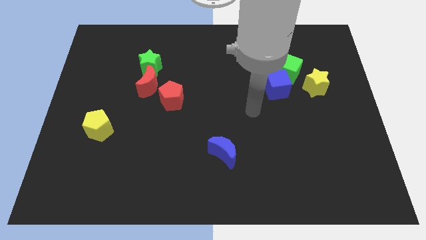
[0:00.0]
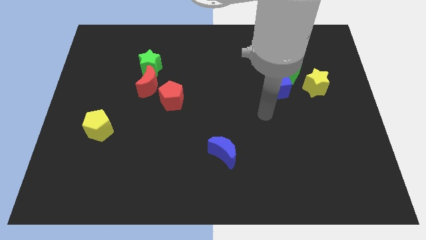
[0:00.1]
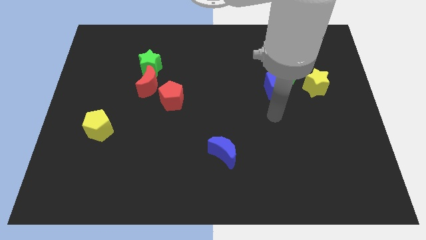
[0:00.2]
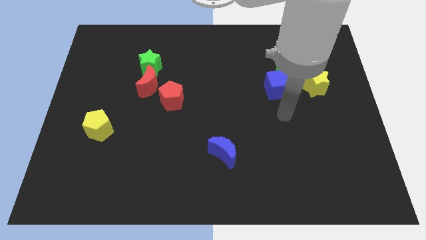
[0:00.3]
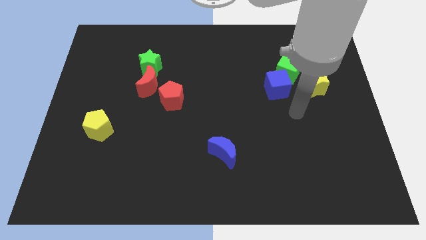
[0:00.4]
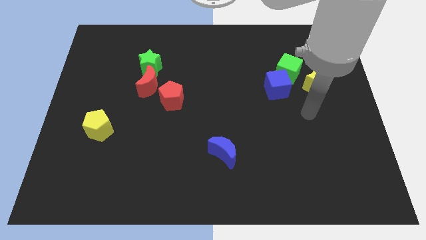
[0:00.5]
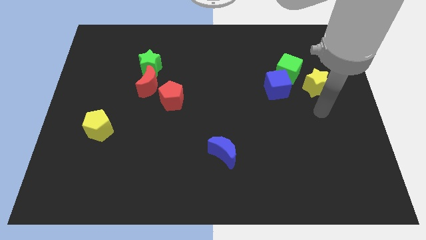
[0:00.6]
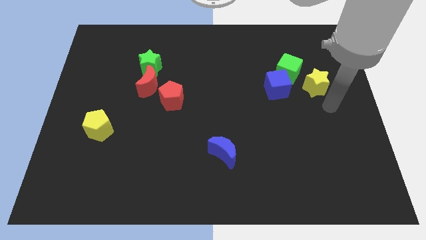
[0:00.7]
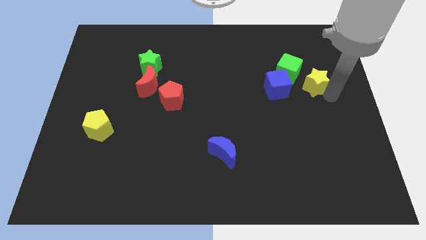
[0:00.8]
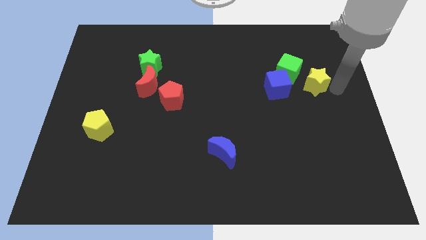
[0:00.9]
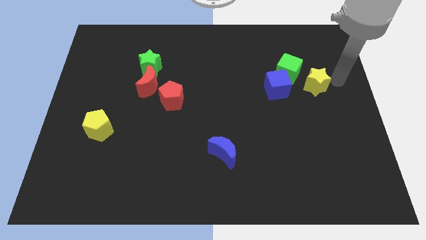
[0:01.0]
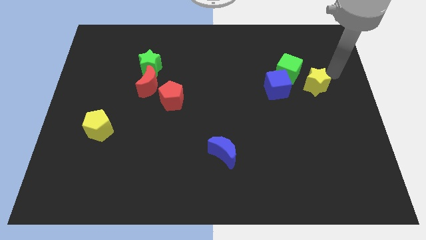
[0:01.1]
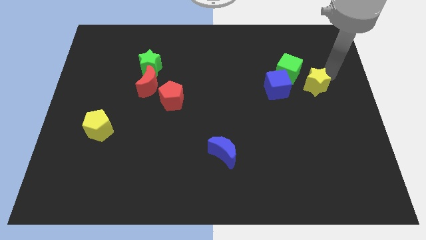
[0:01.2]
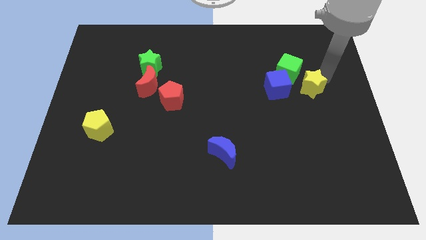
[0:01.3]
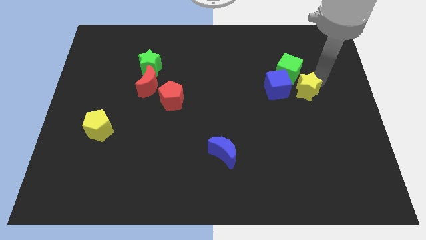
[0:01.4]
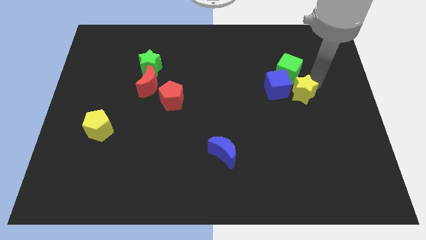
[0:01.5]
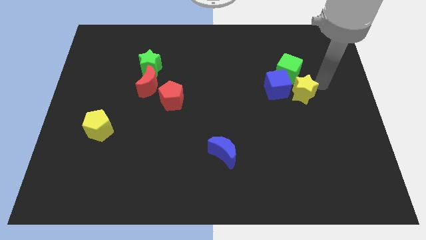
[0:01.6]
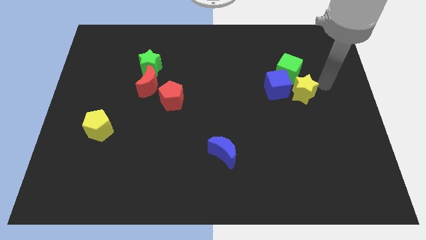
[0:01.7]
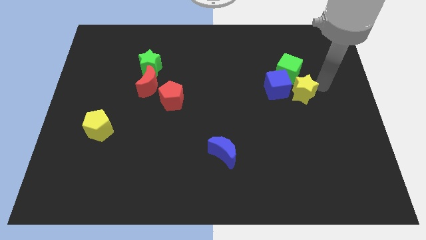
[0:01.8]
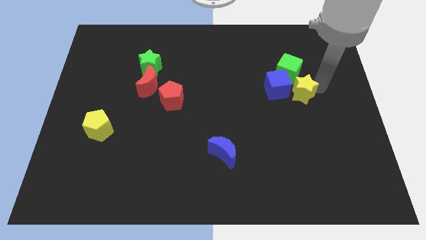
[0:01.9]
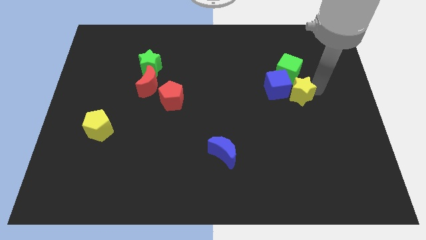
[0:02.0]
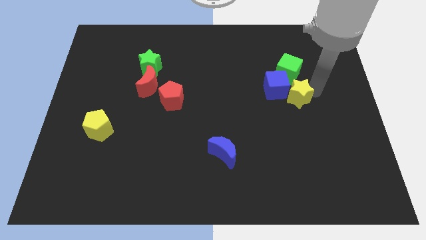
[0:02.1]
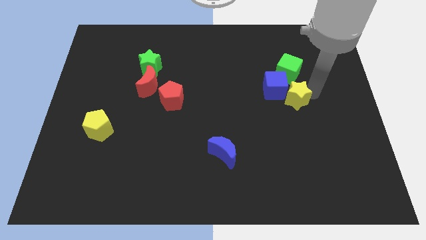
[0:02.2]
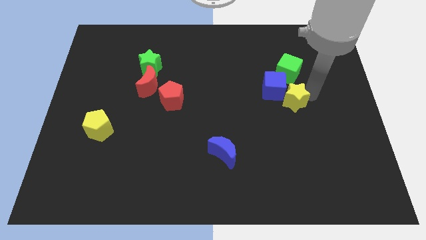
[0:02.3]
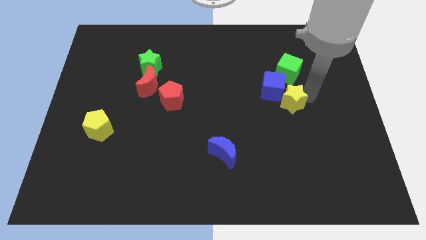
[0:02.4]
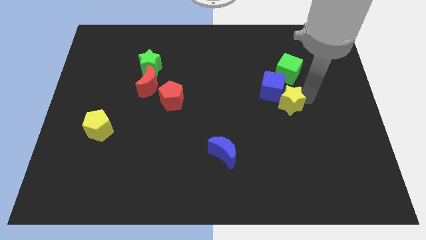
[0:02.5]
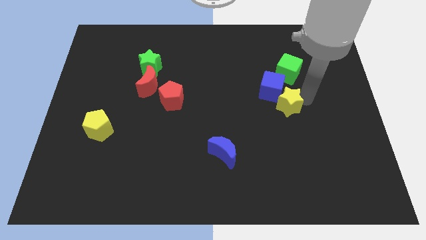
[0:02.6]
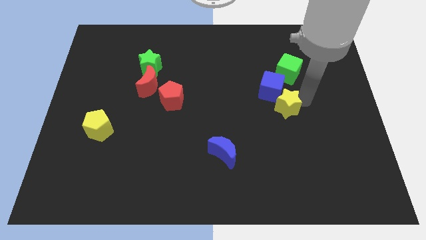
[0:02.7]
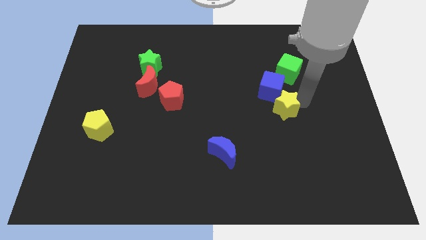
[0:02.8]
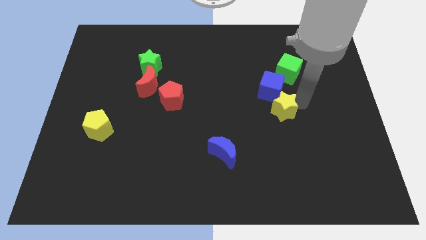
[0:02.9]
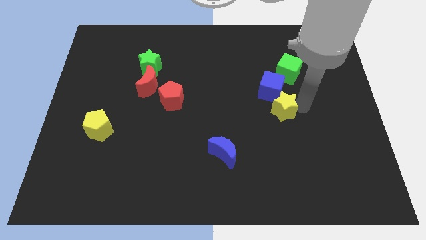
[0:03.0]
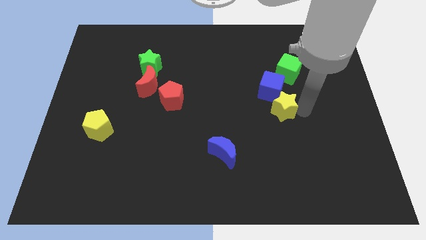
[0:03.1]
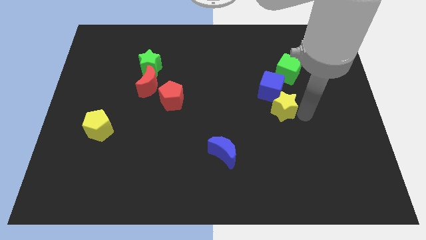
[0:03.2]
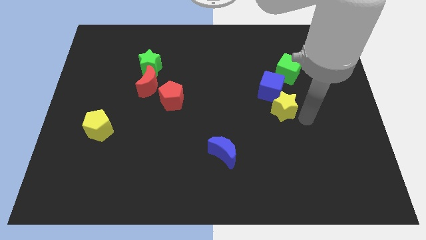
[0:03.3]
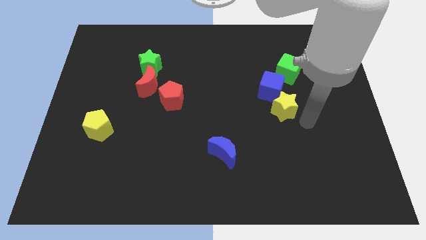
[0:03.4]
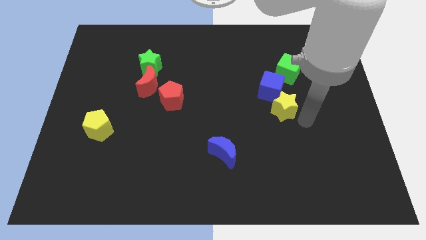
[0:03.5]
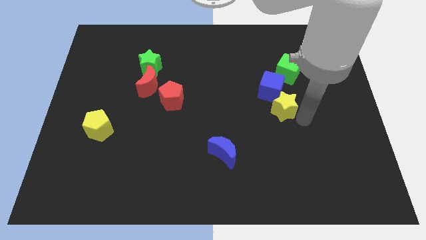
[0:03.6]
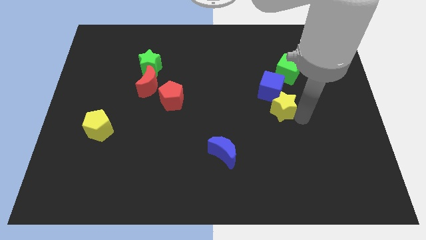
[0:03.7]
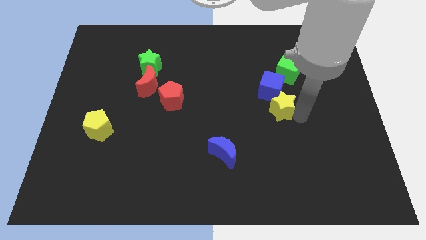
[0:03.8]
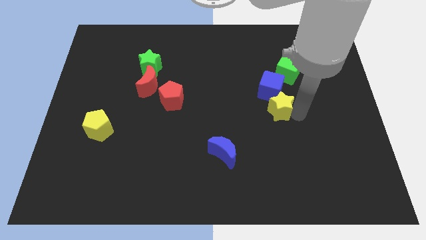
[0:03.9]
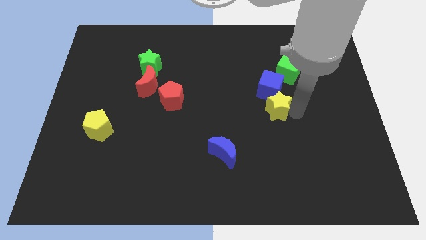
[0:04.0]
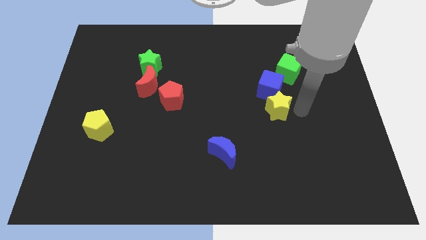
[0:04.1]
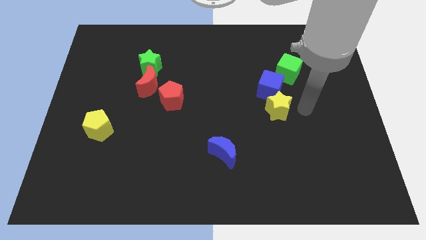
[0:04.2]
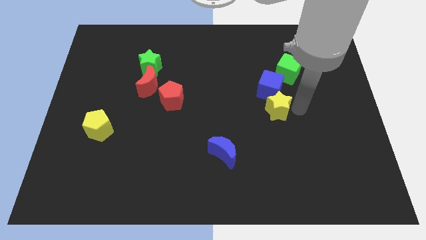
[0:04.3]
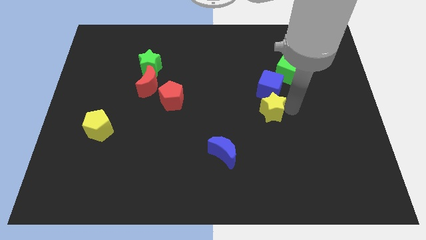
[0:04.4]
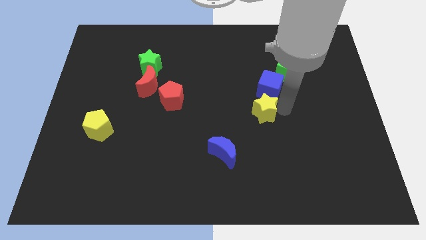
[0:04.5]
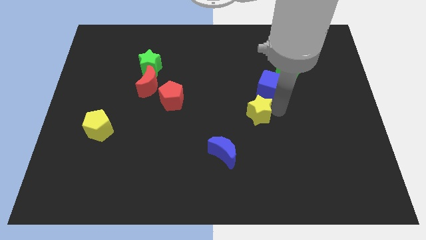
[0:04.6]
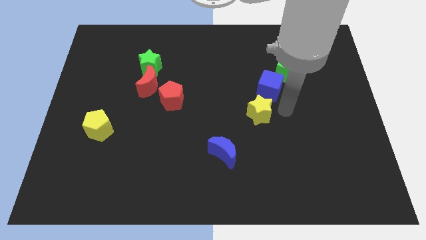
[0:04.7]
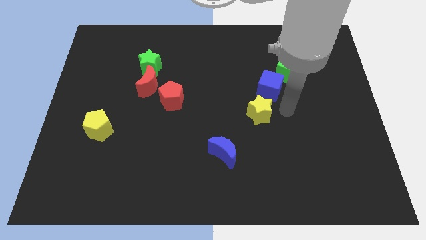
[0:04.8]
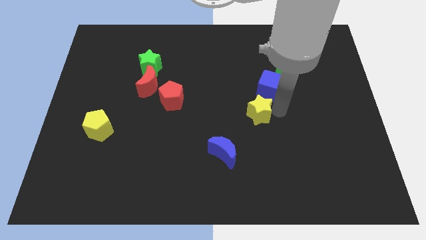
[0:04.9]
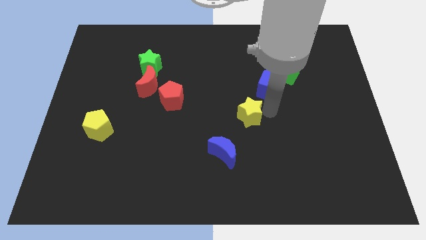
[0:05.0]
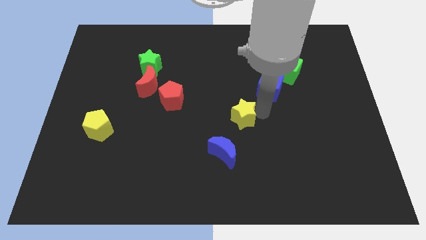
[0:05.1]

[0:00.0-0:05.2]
slide the yellow star above the blue moon

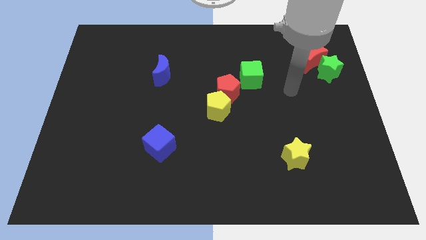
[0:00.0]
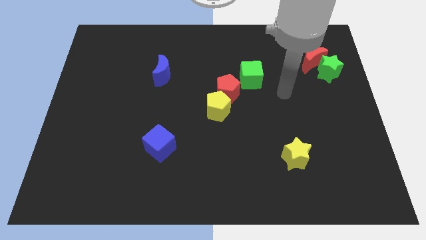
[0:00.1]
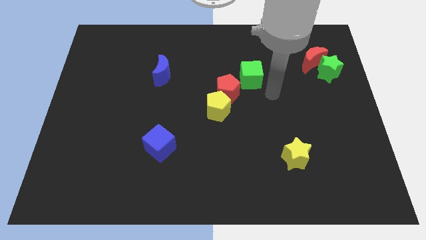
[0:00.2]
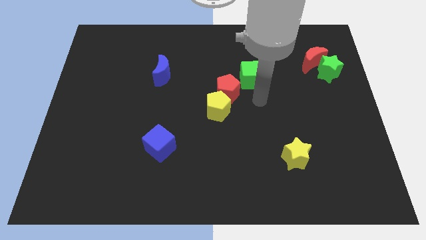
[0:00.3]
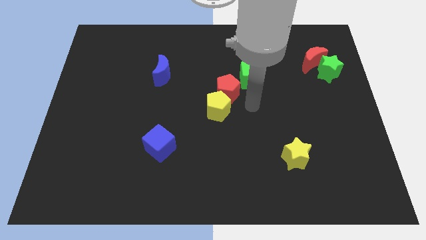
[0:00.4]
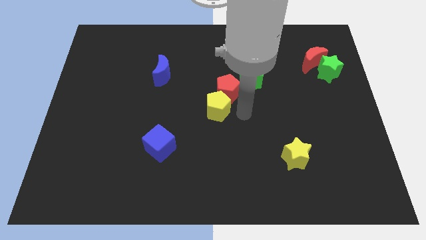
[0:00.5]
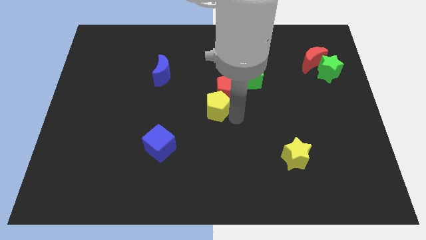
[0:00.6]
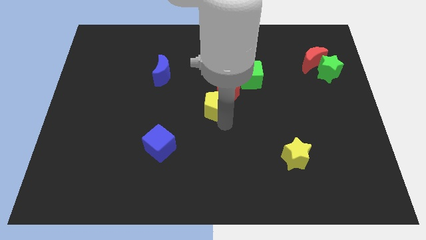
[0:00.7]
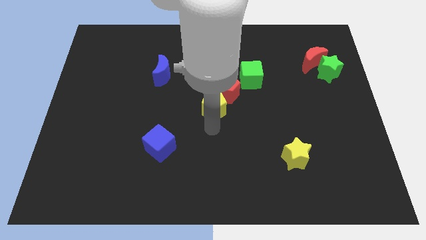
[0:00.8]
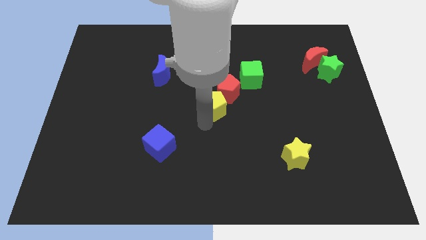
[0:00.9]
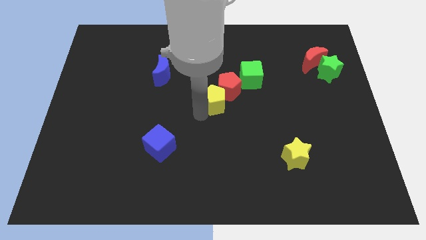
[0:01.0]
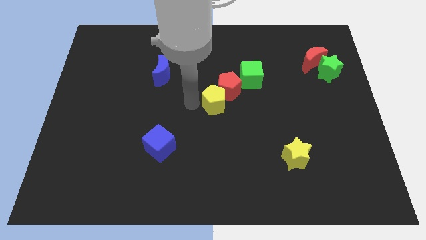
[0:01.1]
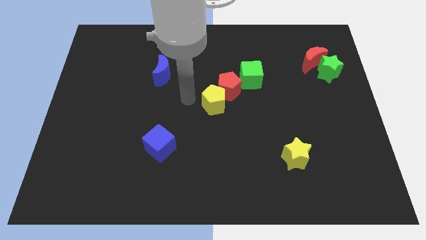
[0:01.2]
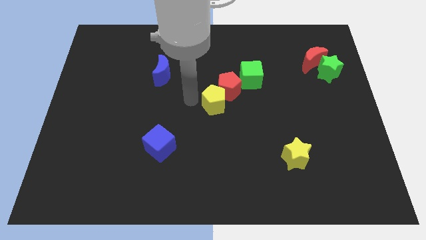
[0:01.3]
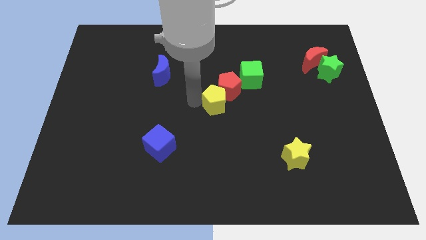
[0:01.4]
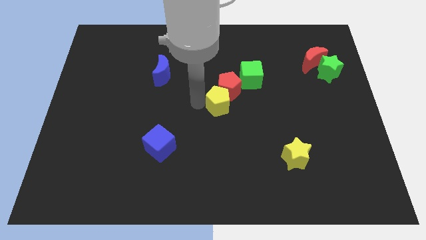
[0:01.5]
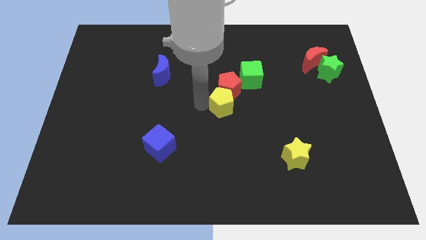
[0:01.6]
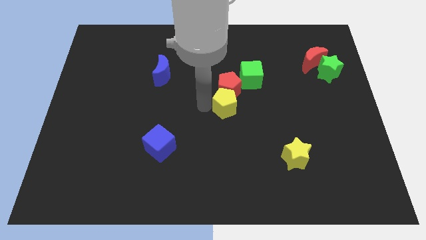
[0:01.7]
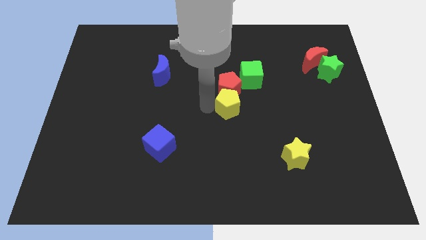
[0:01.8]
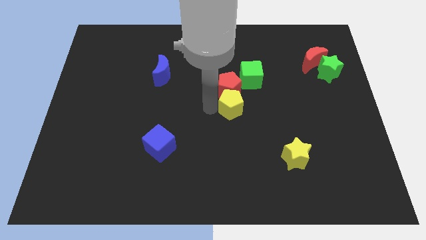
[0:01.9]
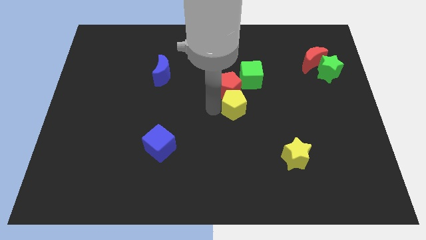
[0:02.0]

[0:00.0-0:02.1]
put the yellow pentagon to the bottom of the green cube

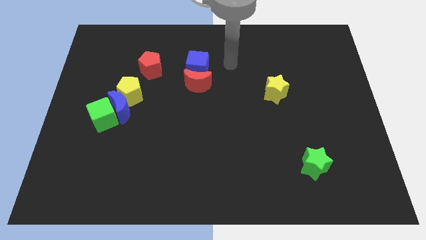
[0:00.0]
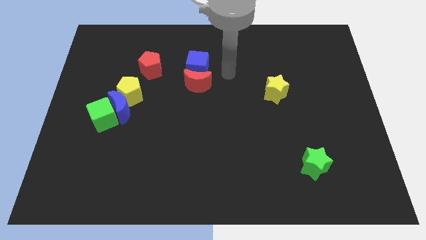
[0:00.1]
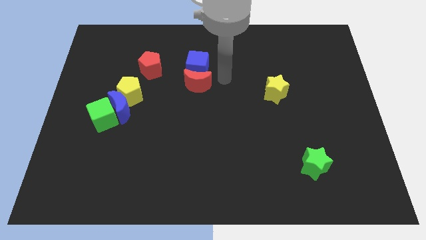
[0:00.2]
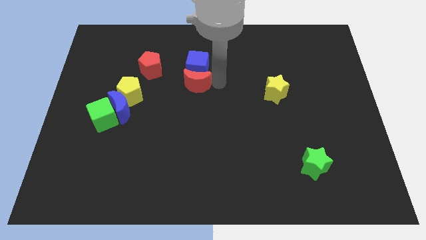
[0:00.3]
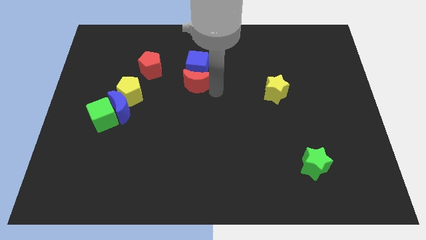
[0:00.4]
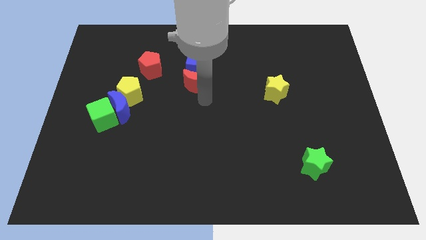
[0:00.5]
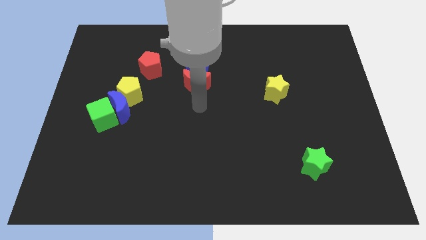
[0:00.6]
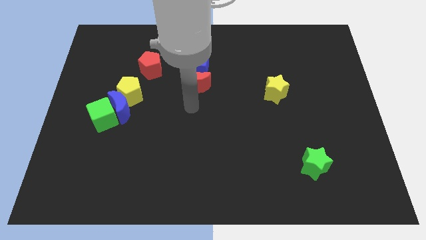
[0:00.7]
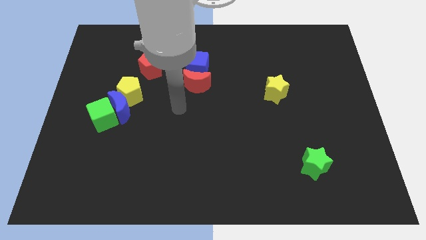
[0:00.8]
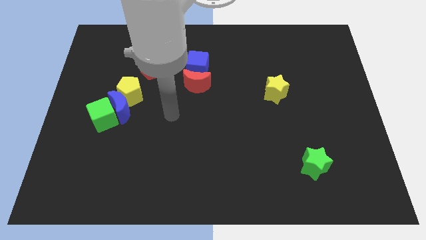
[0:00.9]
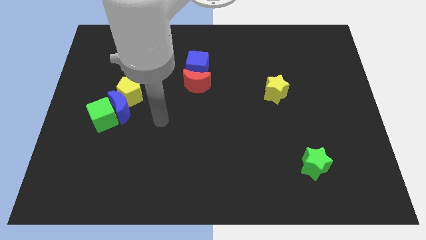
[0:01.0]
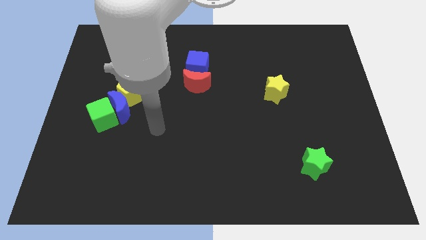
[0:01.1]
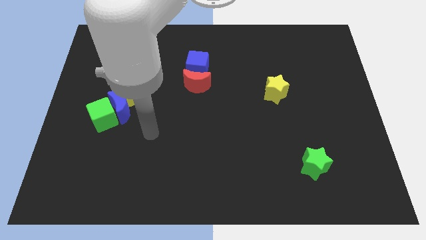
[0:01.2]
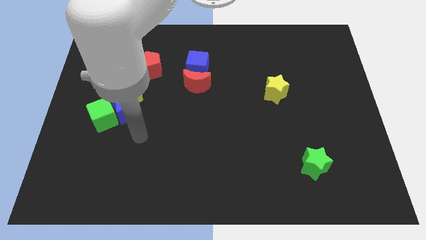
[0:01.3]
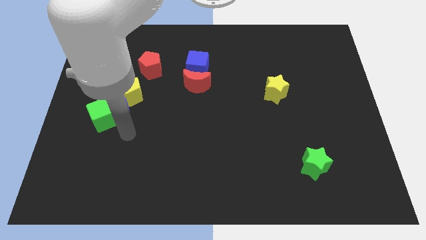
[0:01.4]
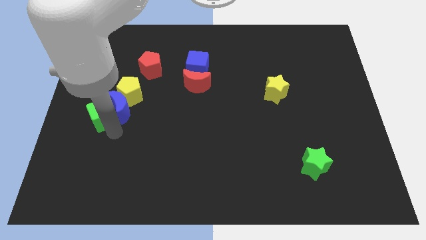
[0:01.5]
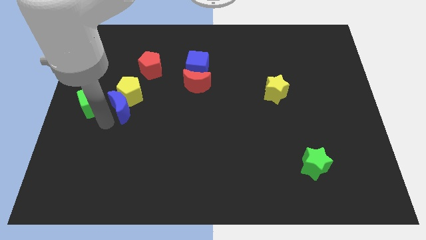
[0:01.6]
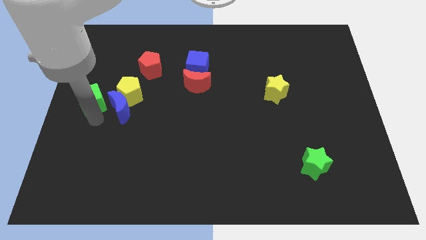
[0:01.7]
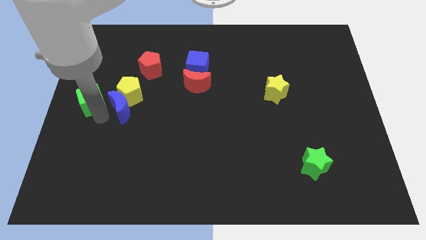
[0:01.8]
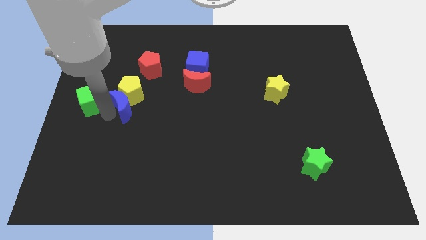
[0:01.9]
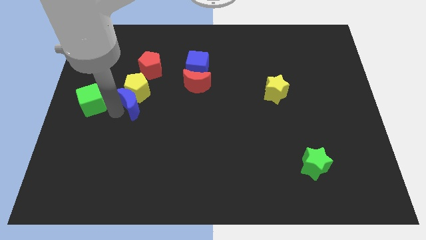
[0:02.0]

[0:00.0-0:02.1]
put the blue moon to the bottom side of the red pentagon
